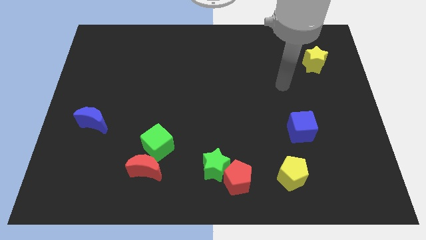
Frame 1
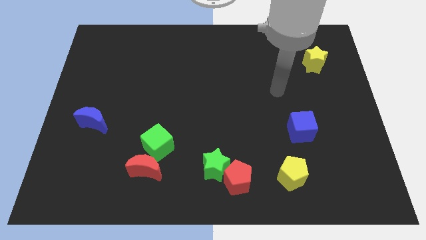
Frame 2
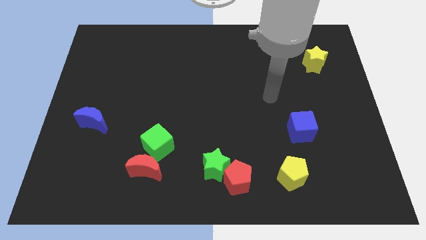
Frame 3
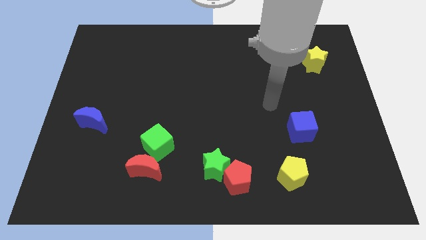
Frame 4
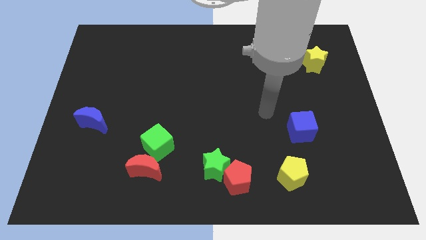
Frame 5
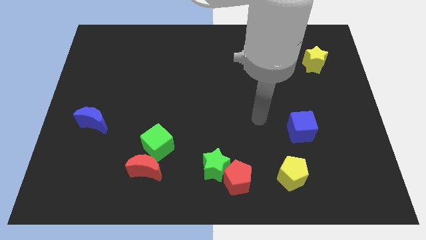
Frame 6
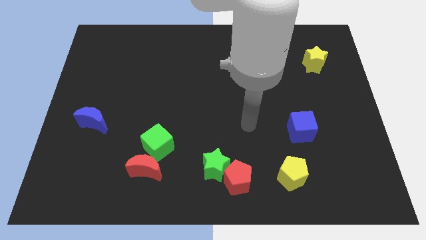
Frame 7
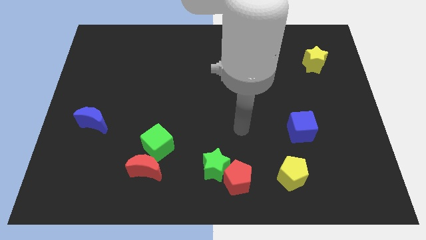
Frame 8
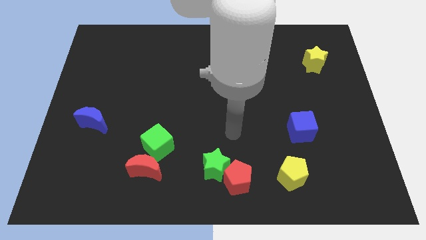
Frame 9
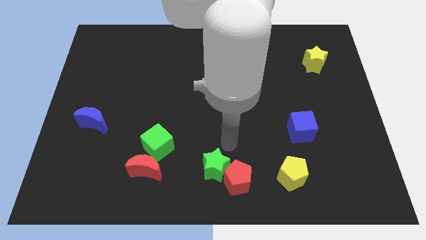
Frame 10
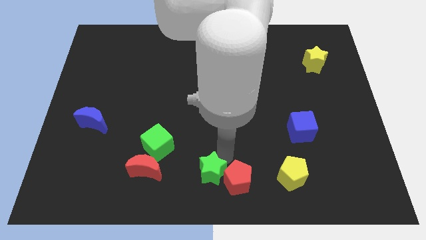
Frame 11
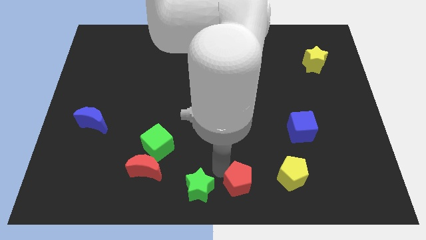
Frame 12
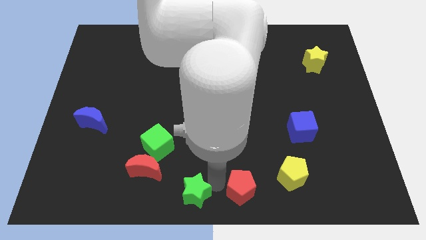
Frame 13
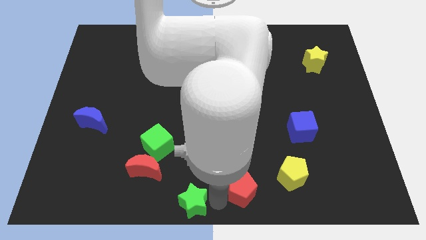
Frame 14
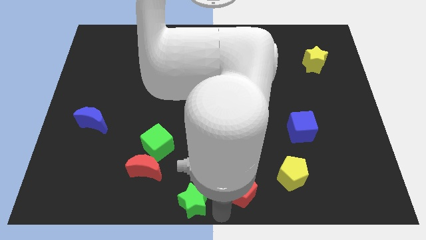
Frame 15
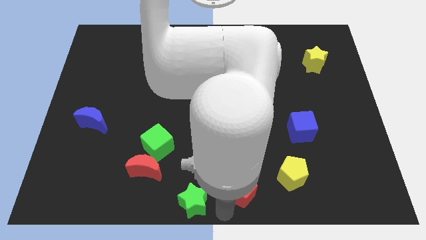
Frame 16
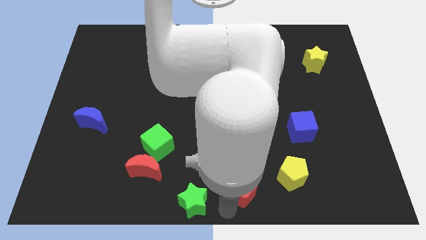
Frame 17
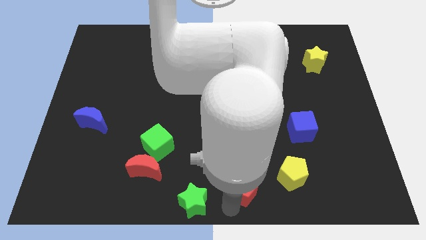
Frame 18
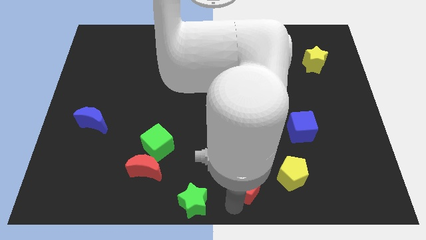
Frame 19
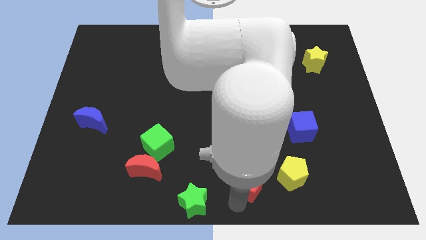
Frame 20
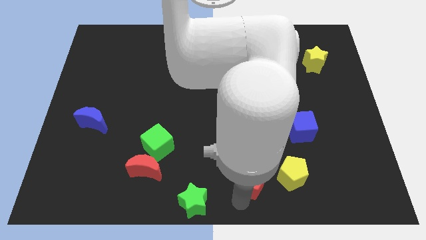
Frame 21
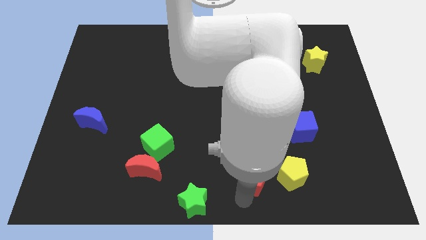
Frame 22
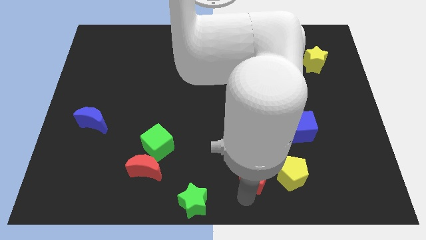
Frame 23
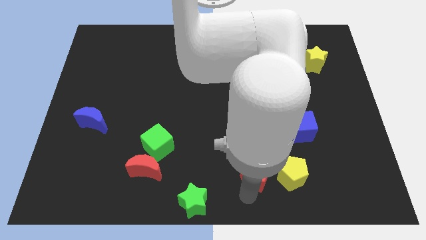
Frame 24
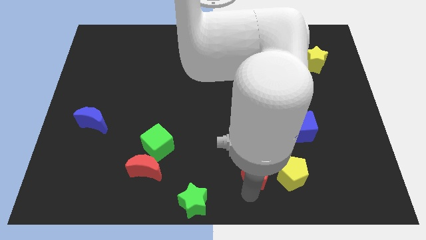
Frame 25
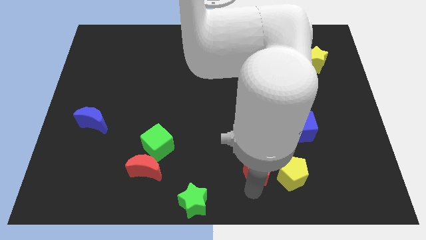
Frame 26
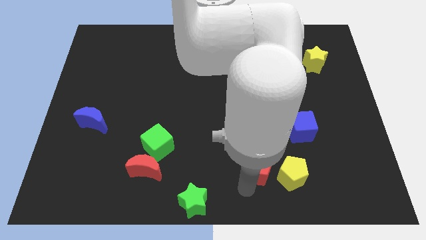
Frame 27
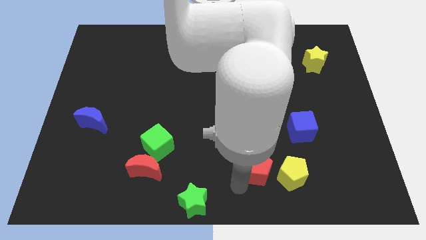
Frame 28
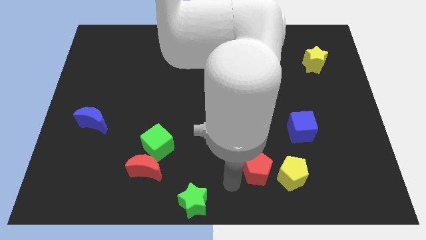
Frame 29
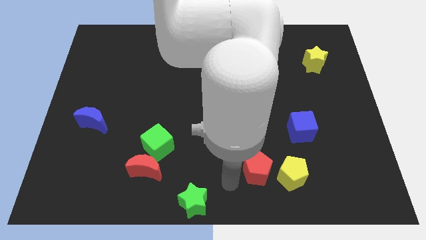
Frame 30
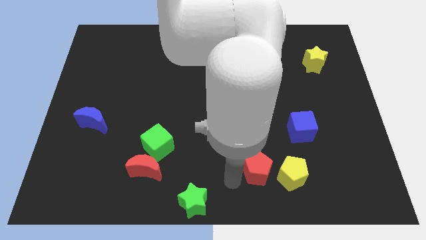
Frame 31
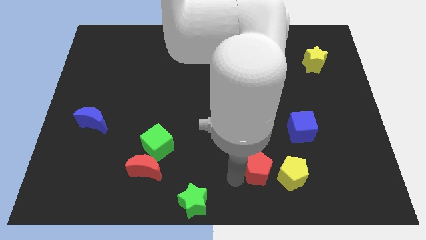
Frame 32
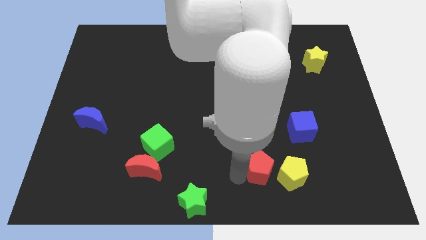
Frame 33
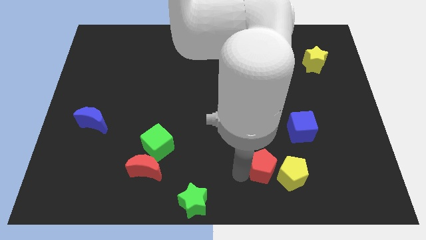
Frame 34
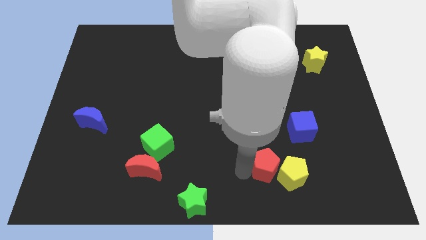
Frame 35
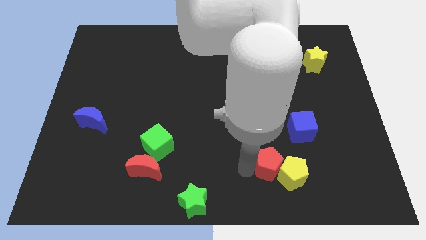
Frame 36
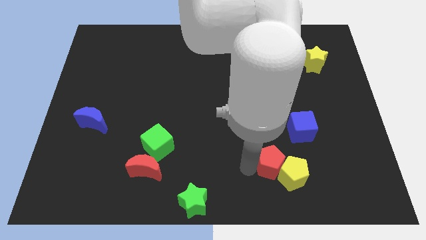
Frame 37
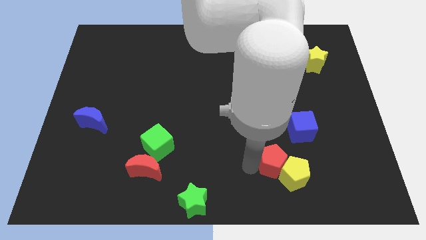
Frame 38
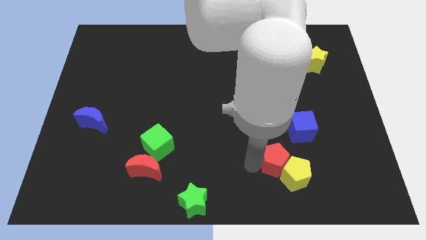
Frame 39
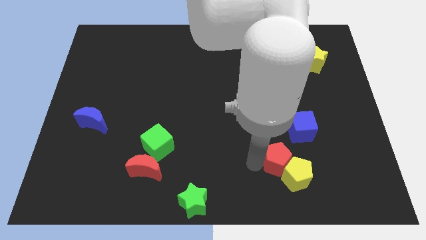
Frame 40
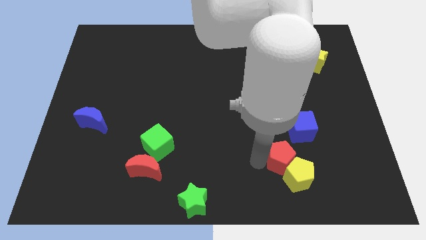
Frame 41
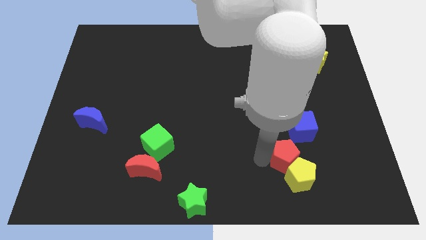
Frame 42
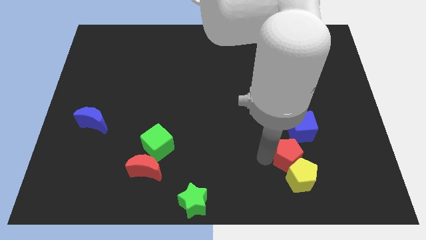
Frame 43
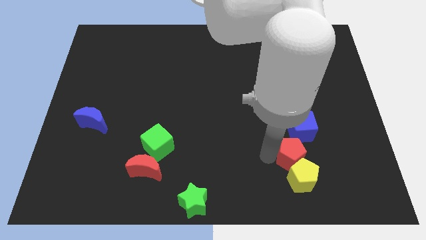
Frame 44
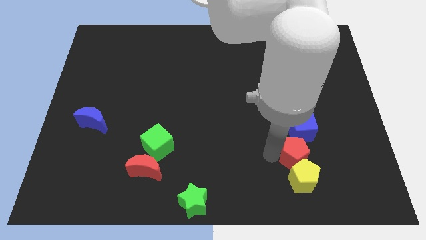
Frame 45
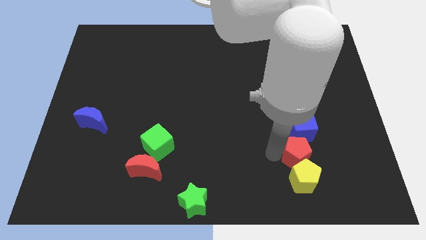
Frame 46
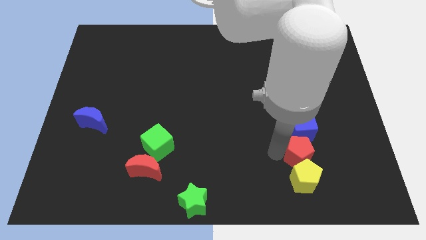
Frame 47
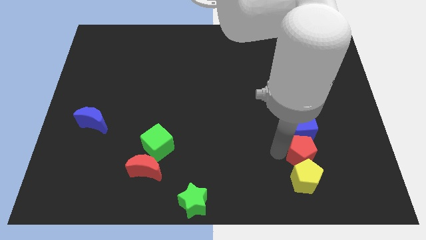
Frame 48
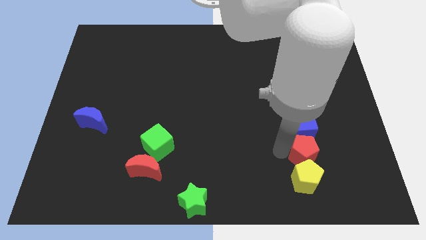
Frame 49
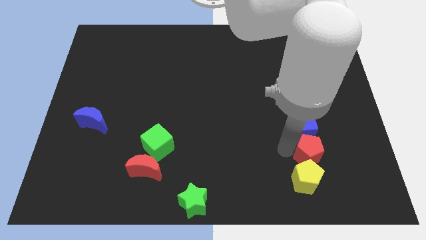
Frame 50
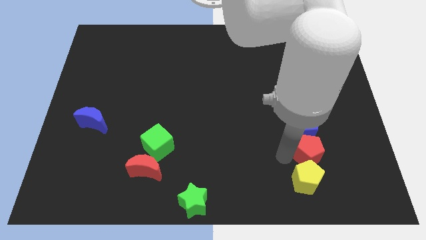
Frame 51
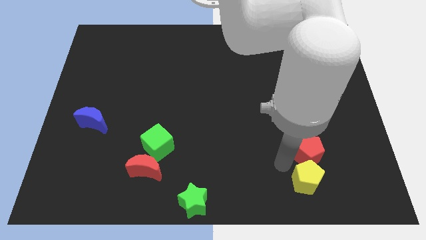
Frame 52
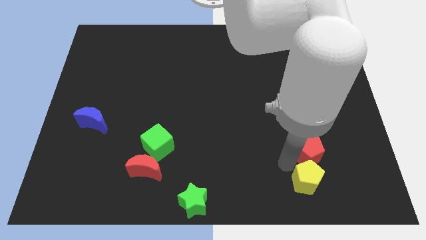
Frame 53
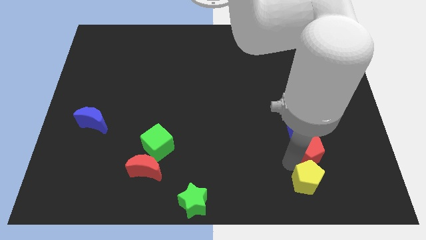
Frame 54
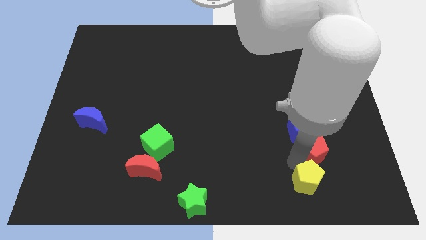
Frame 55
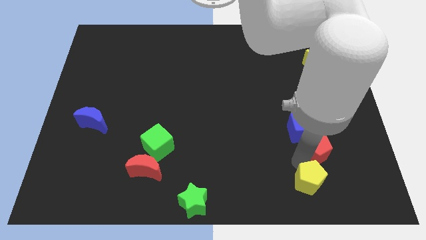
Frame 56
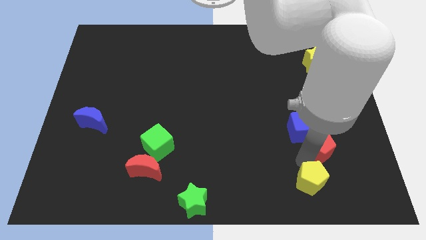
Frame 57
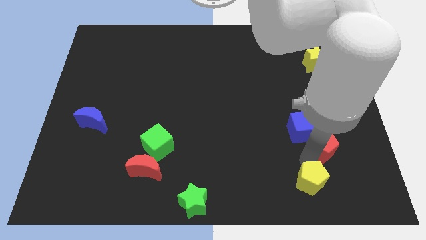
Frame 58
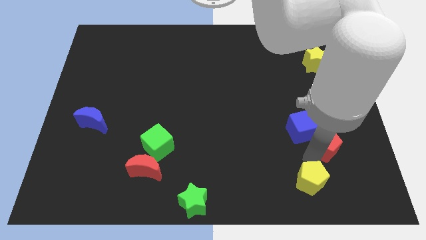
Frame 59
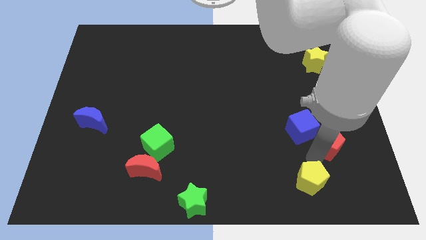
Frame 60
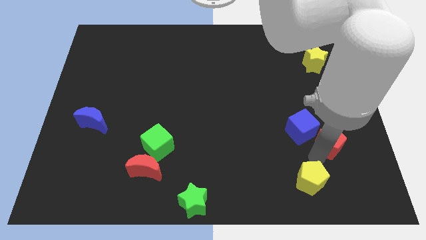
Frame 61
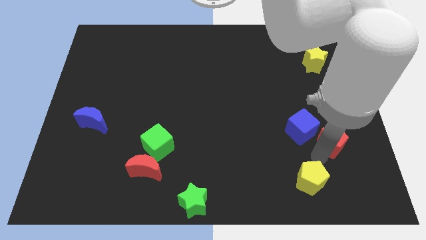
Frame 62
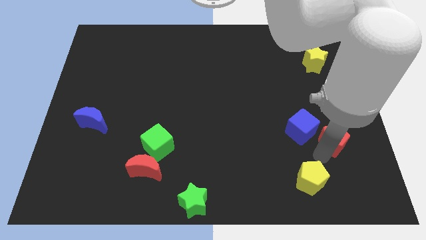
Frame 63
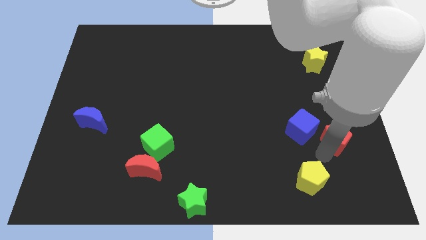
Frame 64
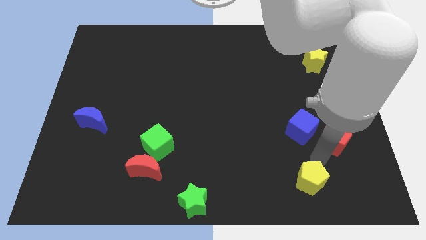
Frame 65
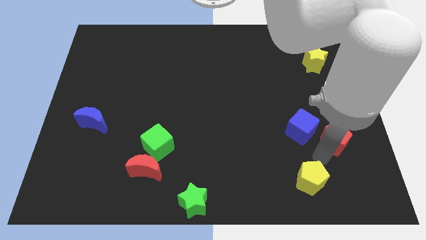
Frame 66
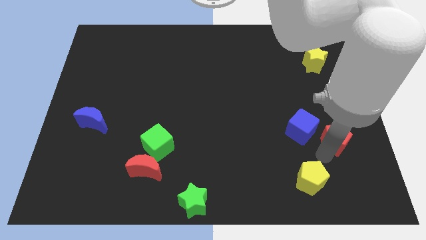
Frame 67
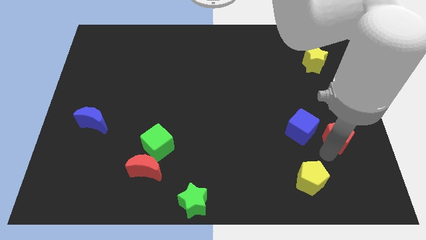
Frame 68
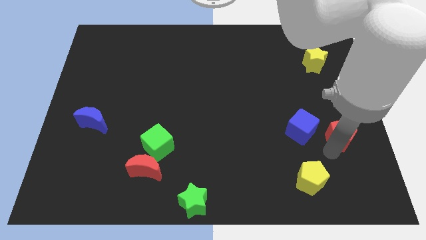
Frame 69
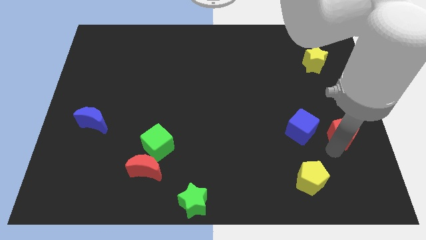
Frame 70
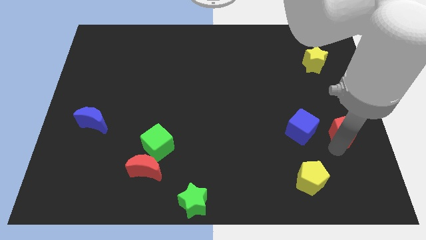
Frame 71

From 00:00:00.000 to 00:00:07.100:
move the red pentagon to the center right
